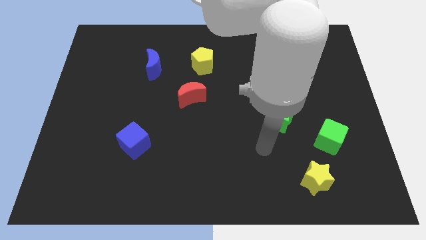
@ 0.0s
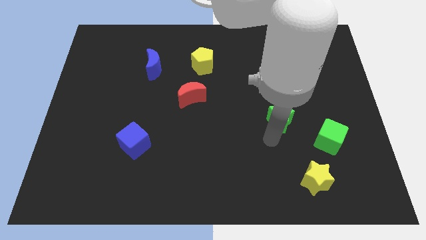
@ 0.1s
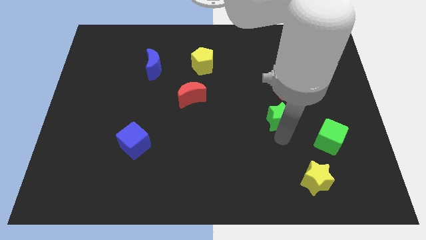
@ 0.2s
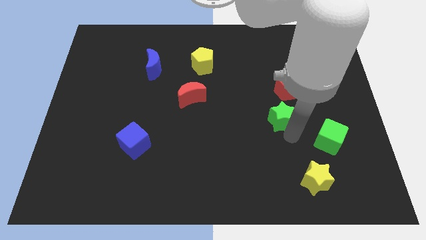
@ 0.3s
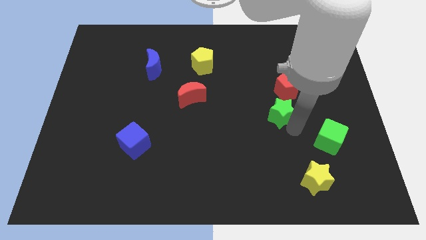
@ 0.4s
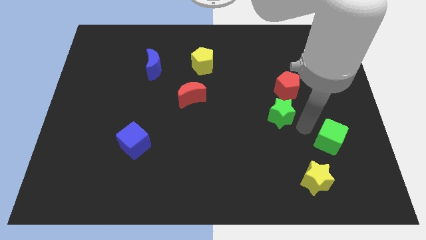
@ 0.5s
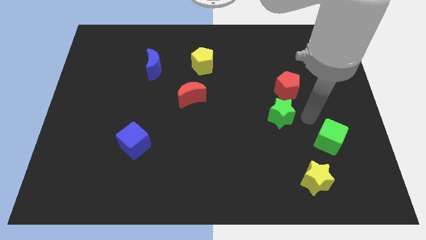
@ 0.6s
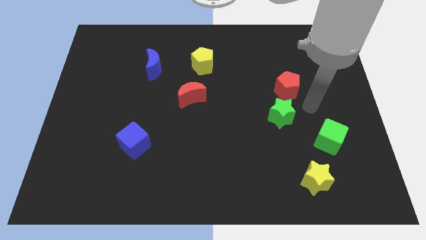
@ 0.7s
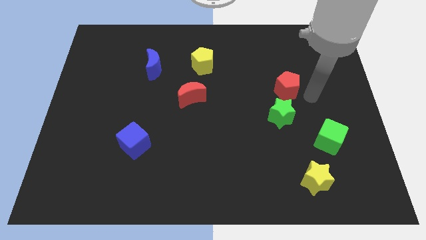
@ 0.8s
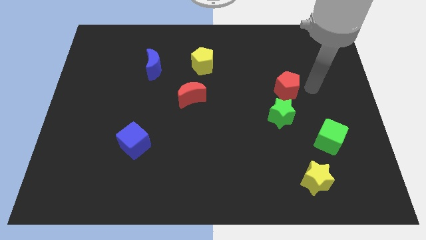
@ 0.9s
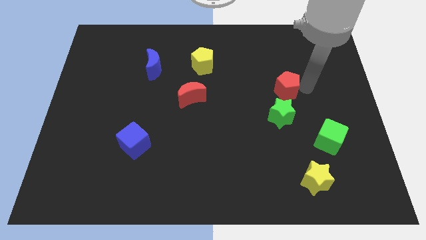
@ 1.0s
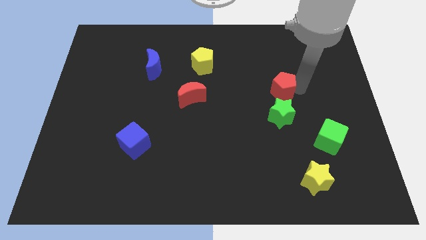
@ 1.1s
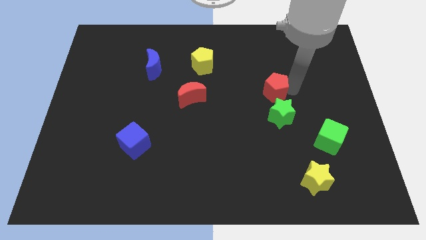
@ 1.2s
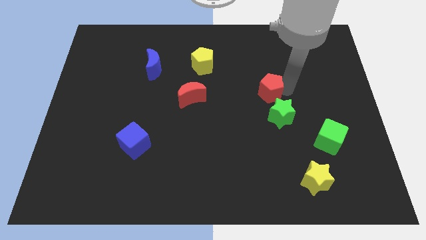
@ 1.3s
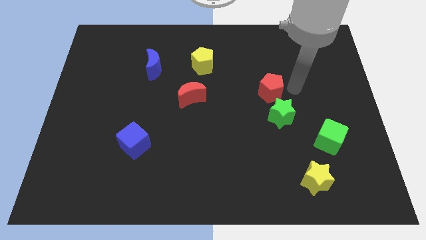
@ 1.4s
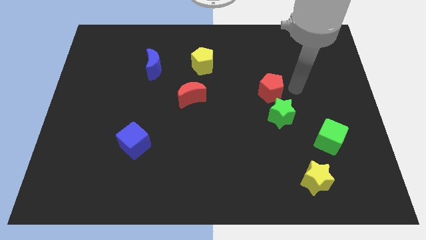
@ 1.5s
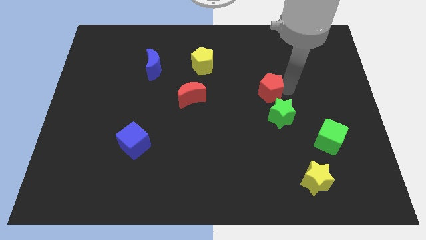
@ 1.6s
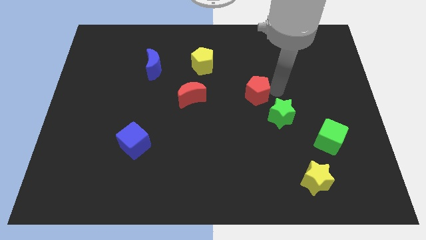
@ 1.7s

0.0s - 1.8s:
put the red pentagon to the middle of the board

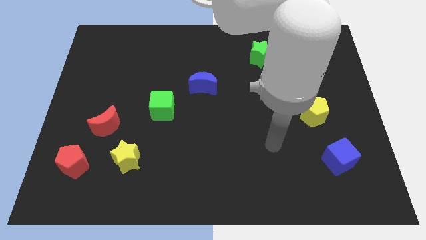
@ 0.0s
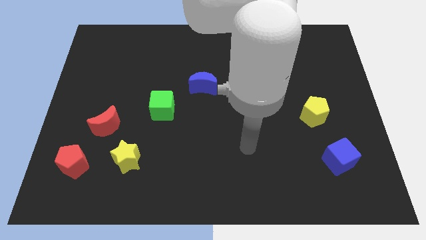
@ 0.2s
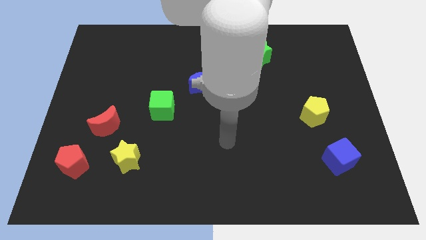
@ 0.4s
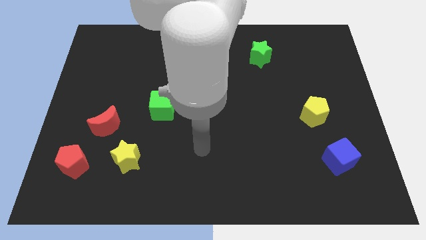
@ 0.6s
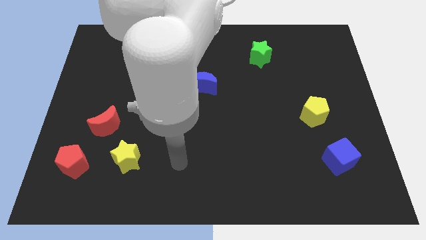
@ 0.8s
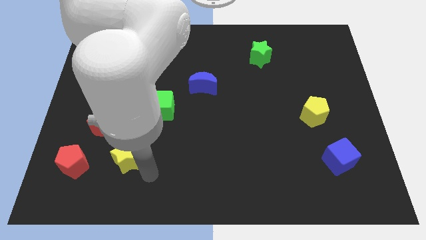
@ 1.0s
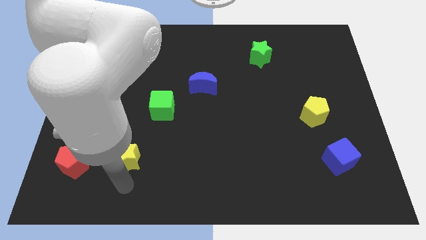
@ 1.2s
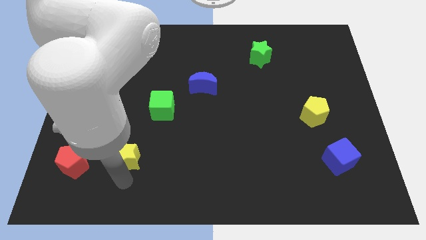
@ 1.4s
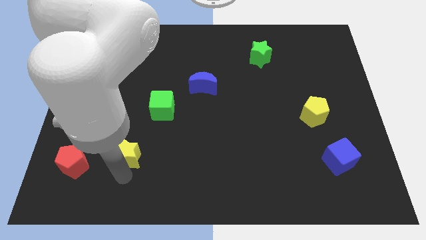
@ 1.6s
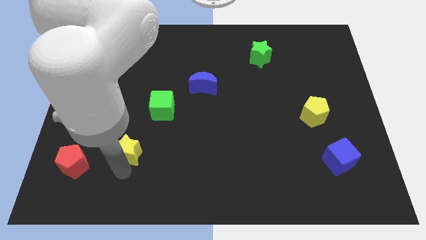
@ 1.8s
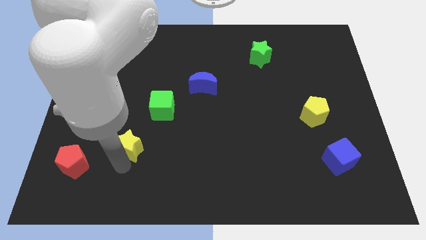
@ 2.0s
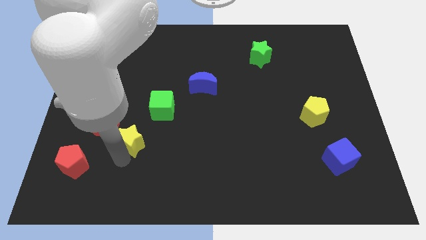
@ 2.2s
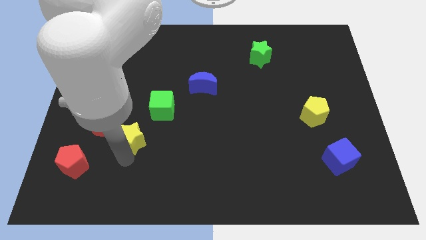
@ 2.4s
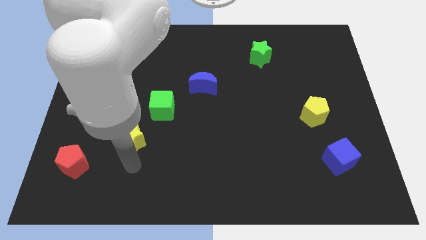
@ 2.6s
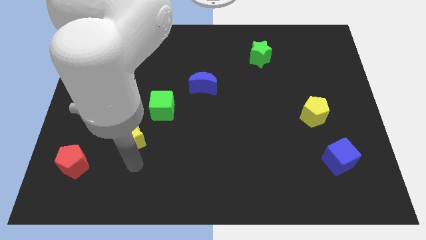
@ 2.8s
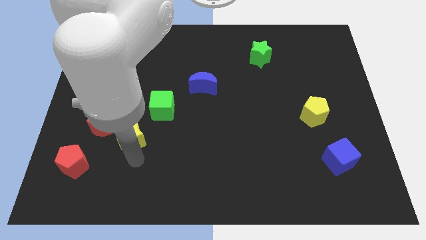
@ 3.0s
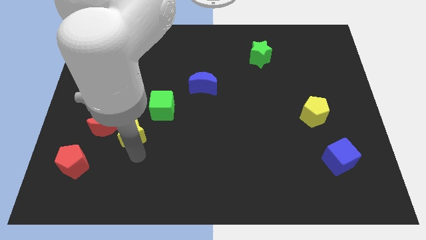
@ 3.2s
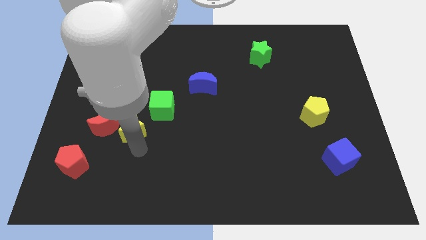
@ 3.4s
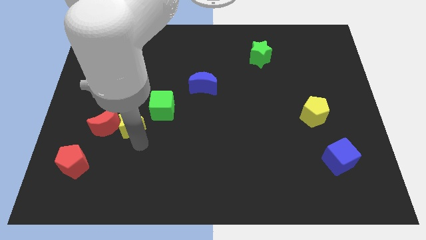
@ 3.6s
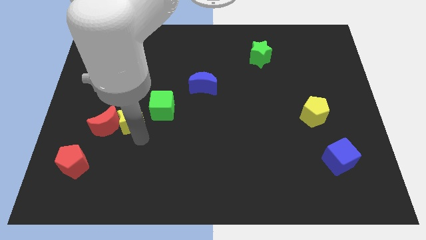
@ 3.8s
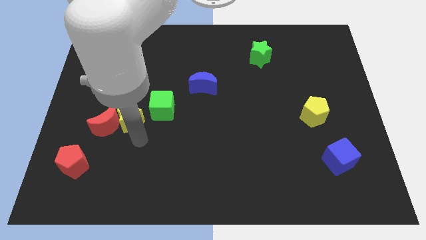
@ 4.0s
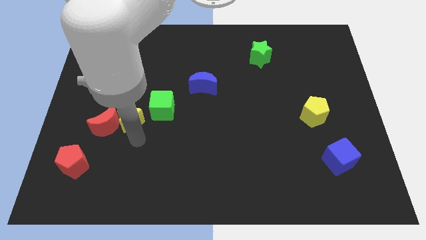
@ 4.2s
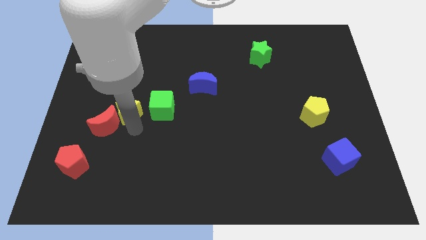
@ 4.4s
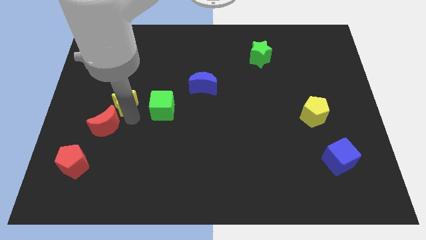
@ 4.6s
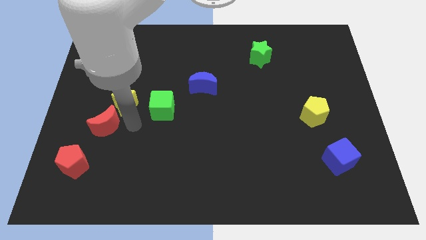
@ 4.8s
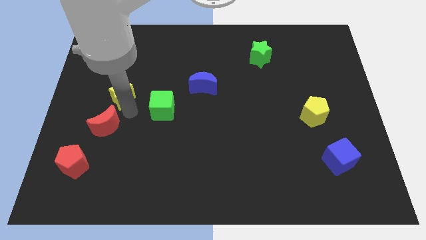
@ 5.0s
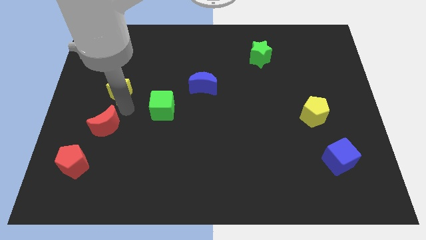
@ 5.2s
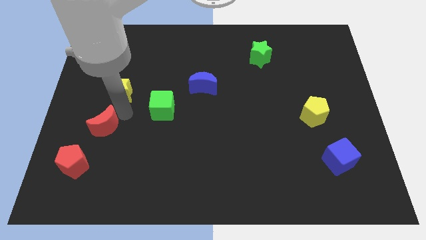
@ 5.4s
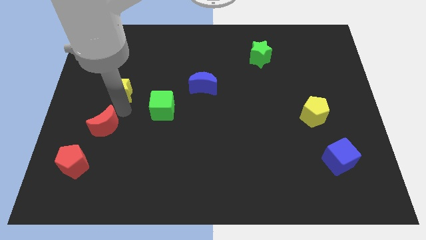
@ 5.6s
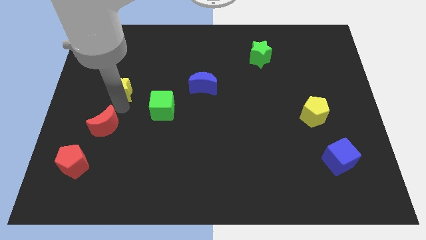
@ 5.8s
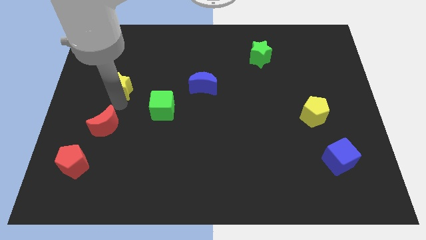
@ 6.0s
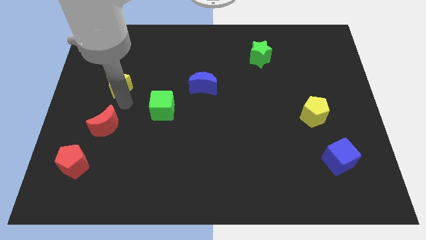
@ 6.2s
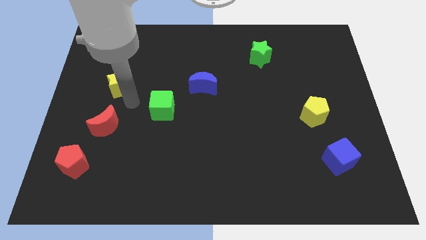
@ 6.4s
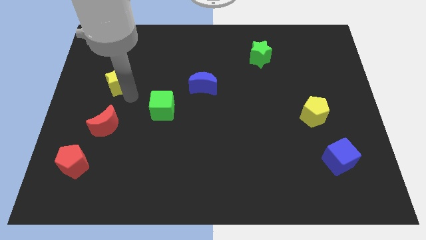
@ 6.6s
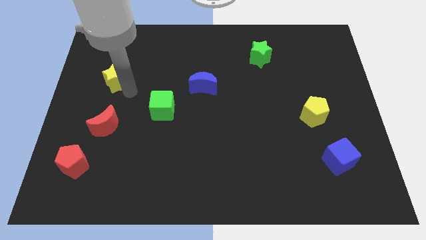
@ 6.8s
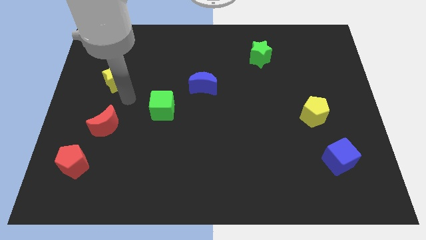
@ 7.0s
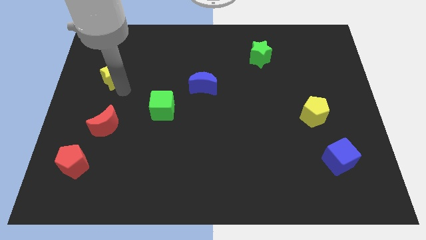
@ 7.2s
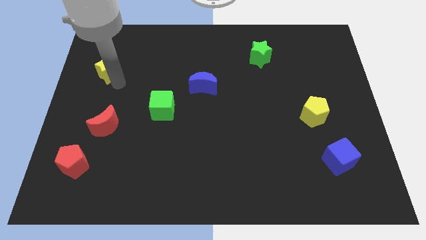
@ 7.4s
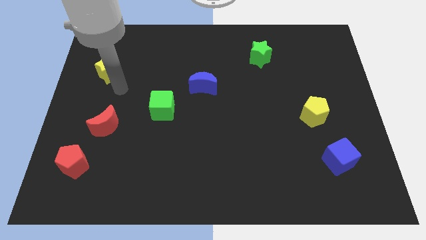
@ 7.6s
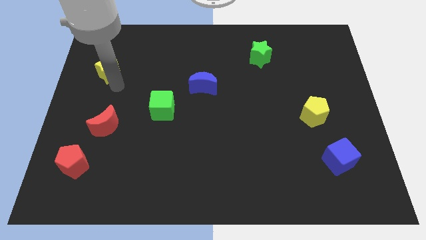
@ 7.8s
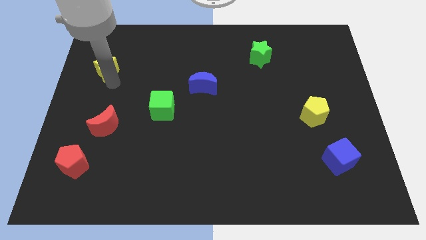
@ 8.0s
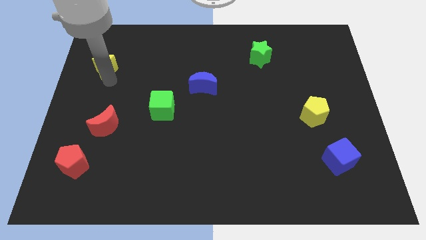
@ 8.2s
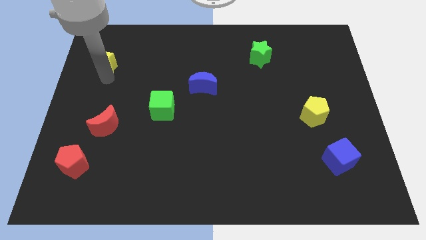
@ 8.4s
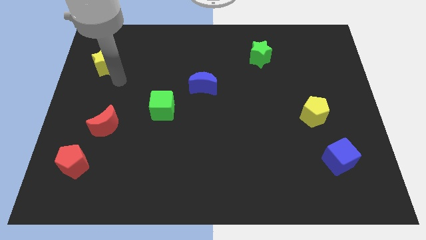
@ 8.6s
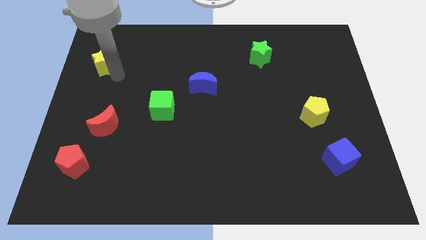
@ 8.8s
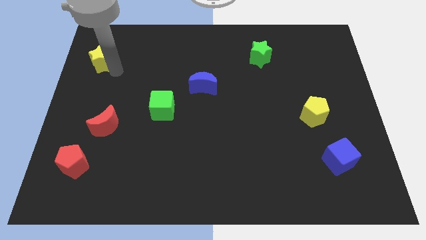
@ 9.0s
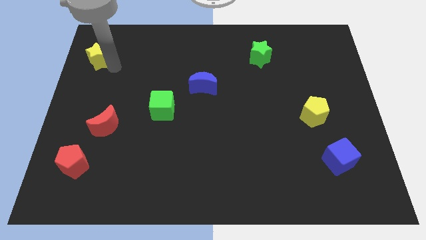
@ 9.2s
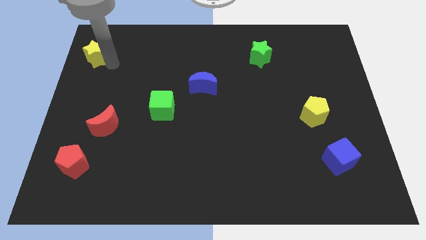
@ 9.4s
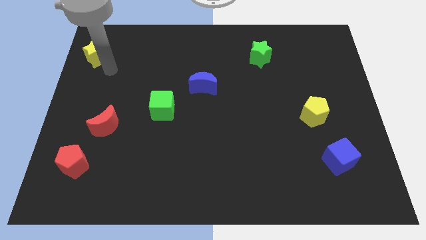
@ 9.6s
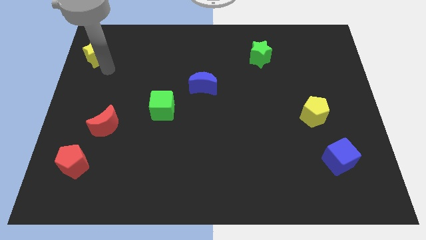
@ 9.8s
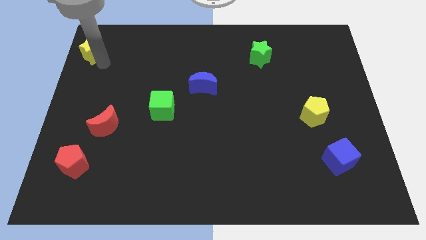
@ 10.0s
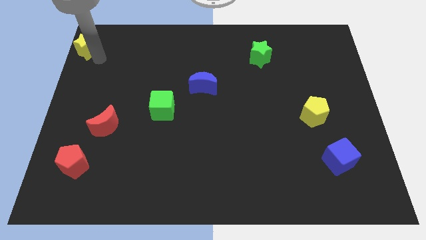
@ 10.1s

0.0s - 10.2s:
push the yellow star to the top left corner

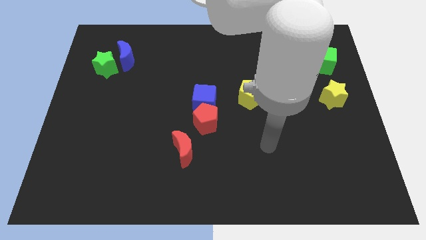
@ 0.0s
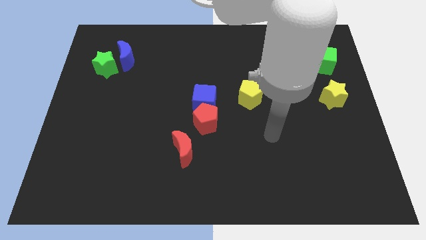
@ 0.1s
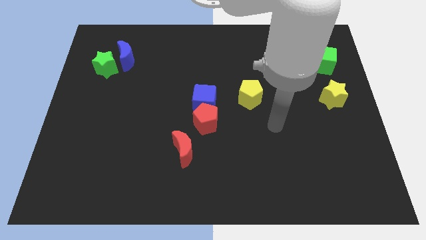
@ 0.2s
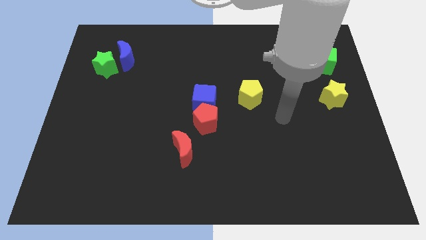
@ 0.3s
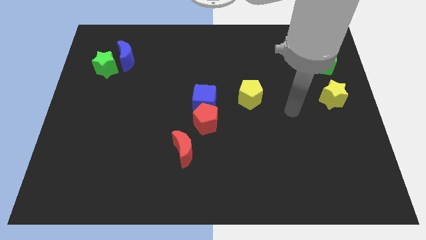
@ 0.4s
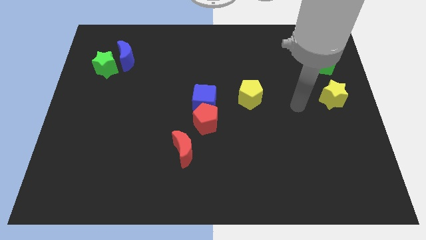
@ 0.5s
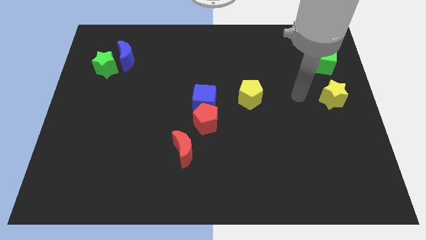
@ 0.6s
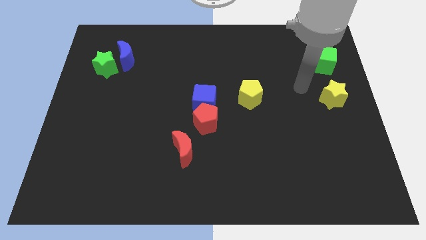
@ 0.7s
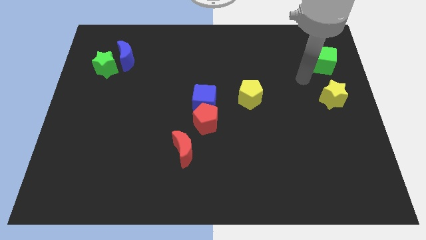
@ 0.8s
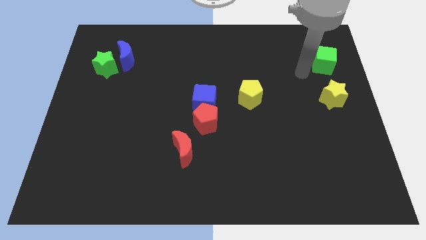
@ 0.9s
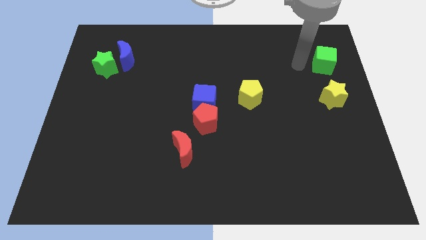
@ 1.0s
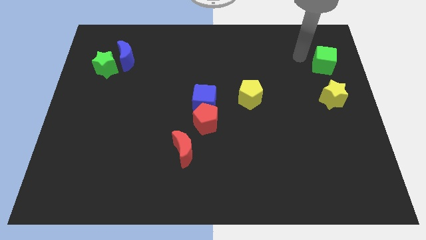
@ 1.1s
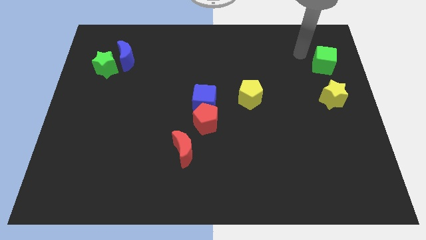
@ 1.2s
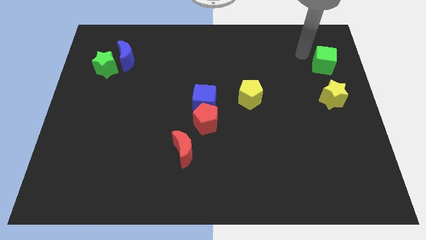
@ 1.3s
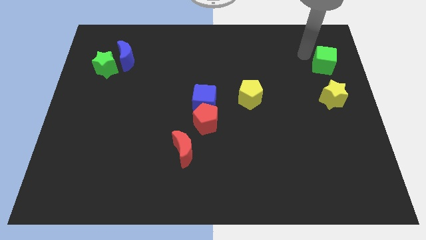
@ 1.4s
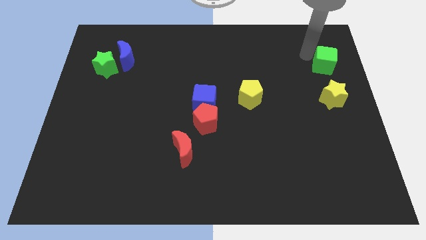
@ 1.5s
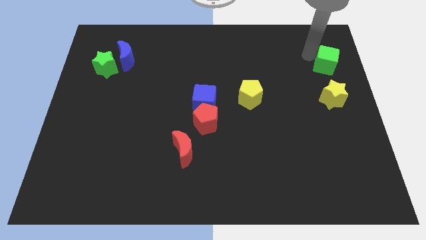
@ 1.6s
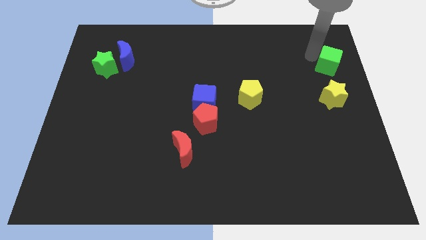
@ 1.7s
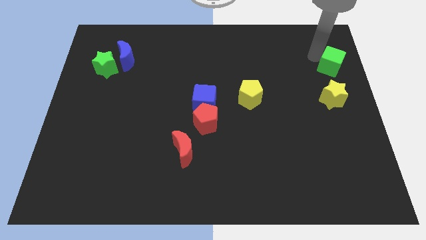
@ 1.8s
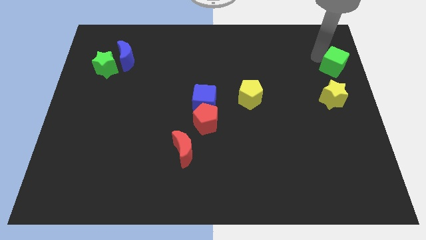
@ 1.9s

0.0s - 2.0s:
move the green cube to the right side of the board
